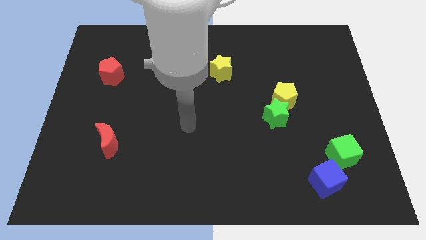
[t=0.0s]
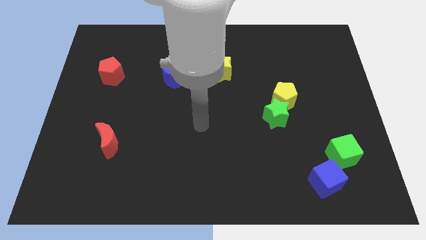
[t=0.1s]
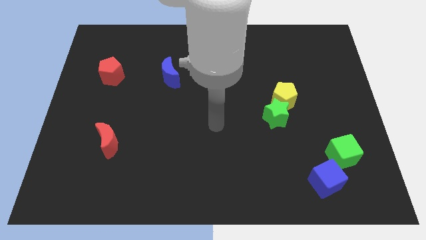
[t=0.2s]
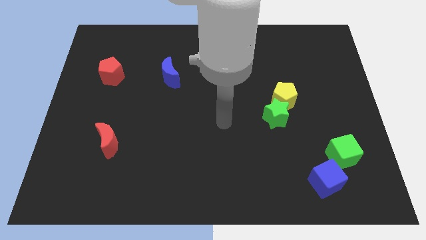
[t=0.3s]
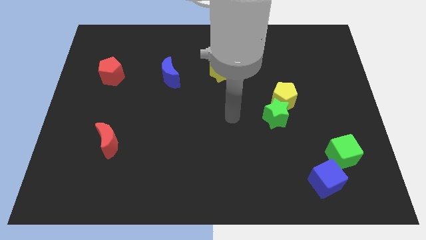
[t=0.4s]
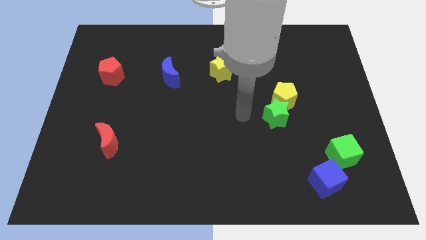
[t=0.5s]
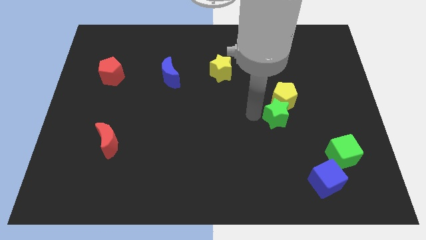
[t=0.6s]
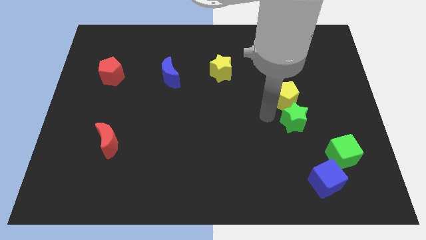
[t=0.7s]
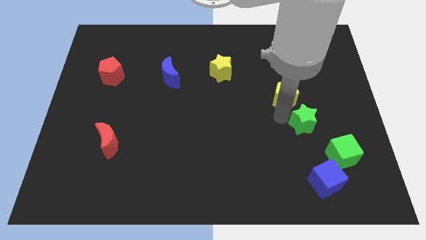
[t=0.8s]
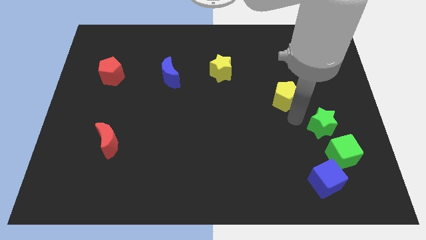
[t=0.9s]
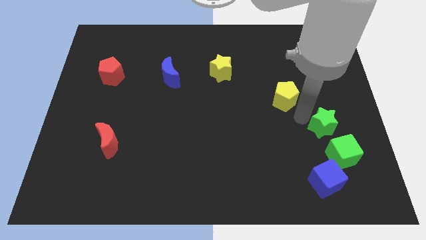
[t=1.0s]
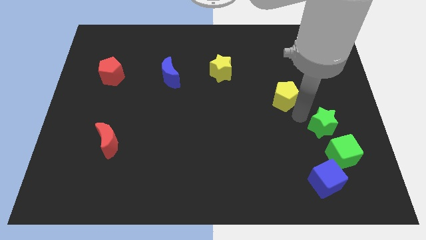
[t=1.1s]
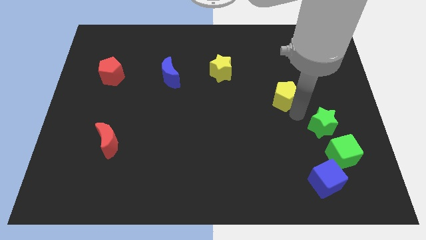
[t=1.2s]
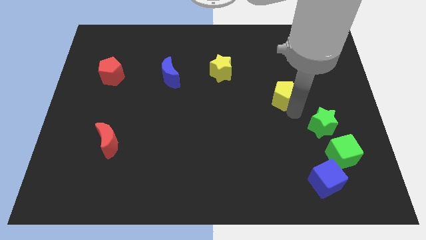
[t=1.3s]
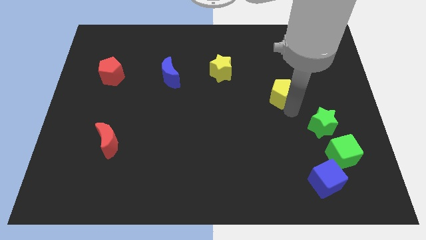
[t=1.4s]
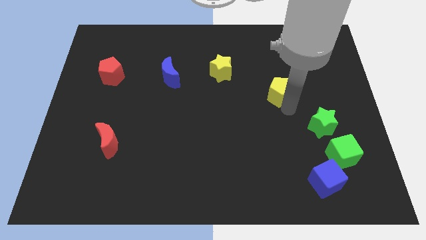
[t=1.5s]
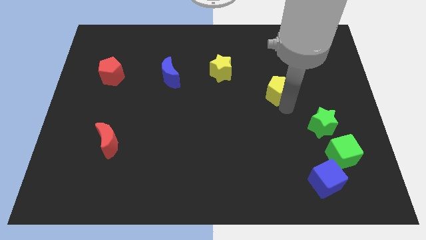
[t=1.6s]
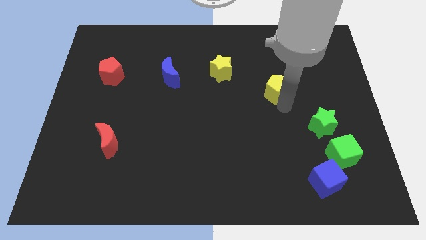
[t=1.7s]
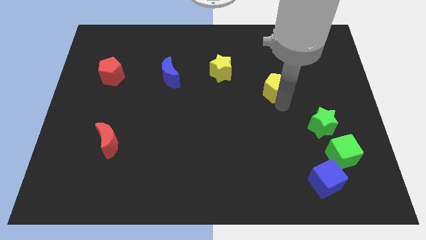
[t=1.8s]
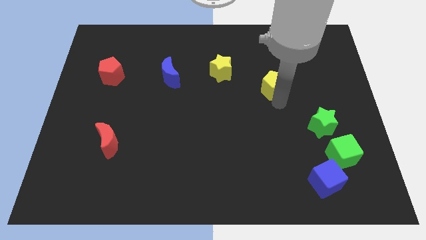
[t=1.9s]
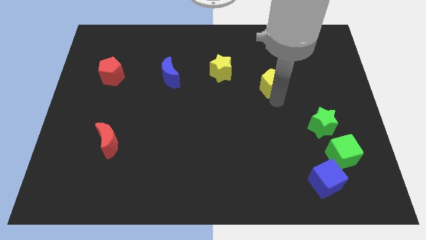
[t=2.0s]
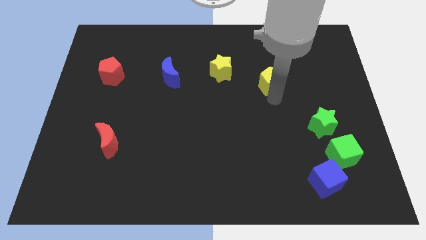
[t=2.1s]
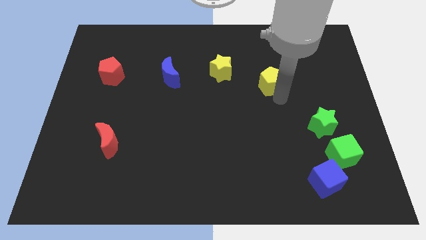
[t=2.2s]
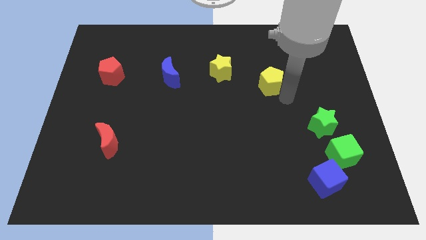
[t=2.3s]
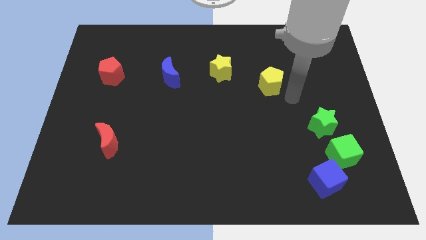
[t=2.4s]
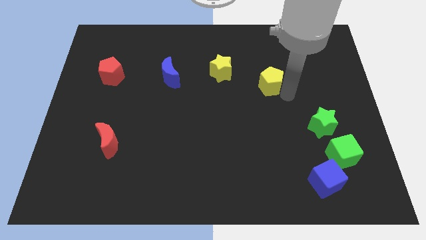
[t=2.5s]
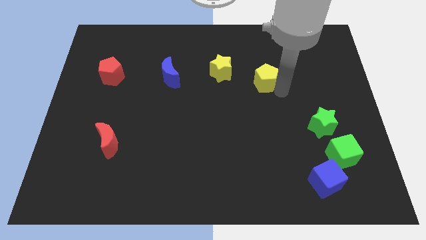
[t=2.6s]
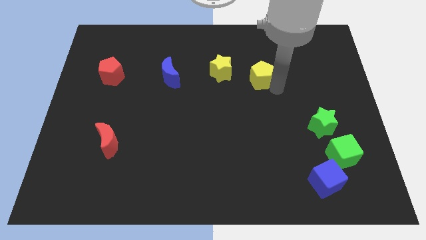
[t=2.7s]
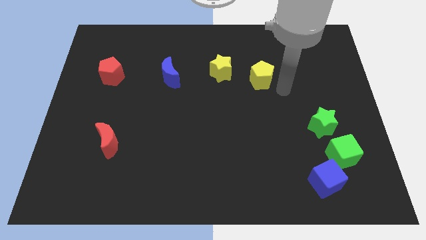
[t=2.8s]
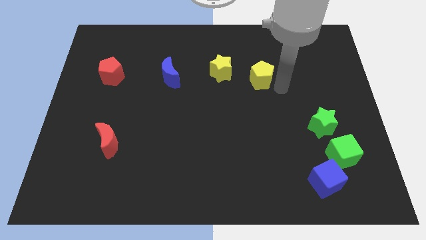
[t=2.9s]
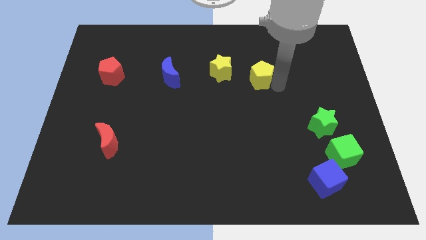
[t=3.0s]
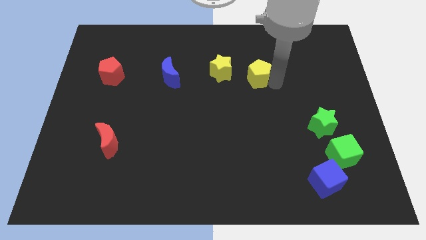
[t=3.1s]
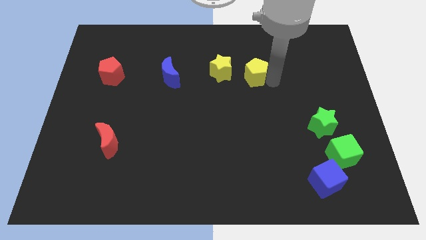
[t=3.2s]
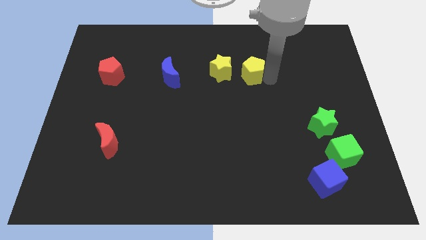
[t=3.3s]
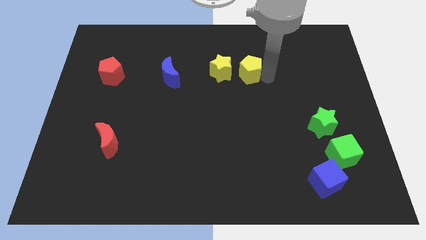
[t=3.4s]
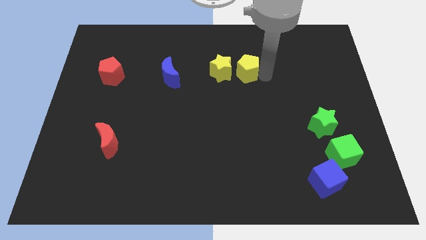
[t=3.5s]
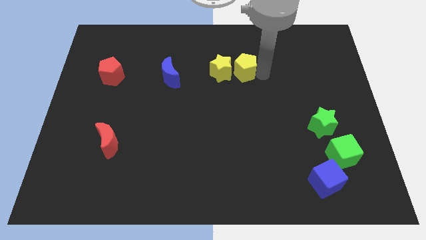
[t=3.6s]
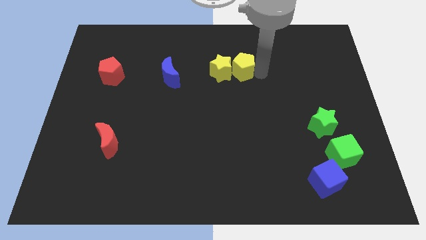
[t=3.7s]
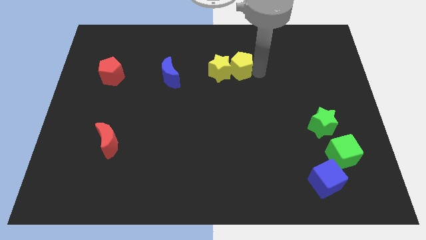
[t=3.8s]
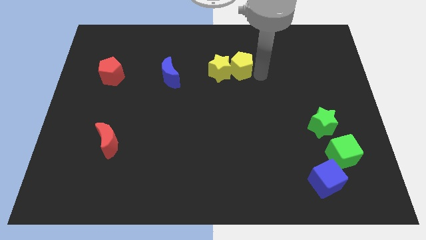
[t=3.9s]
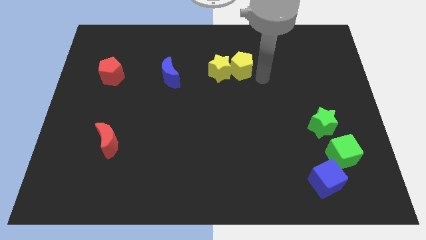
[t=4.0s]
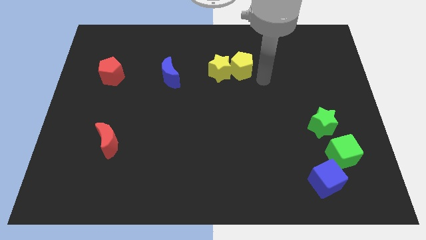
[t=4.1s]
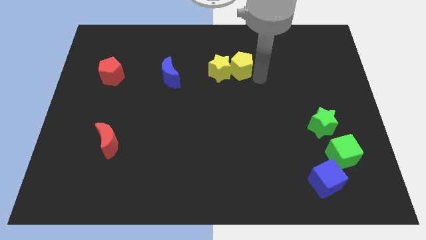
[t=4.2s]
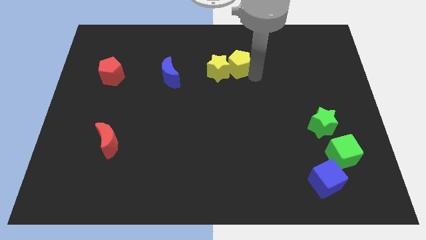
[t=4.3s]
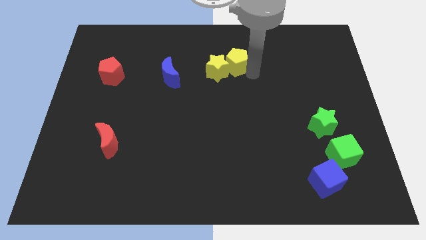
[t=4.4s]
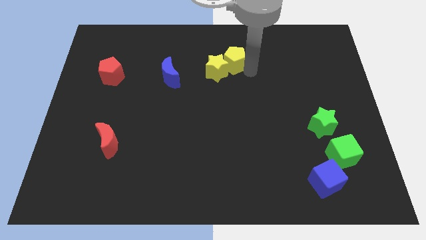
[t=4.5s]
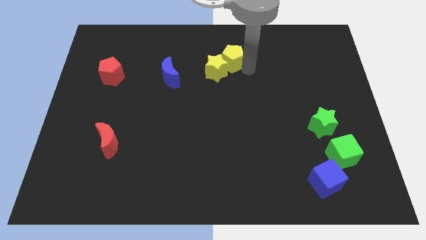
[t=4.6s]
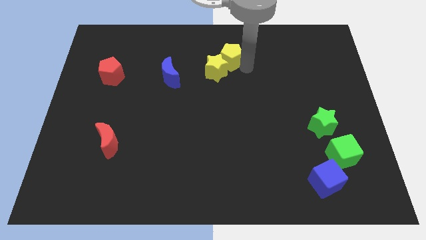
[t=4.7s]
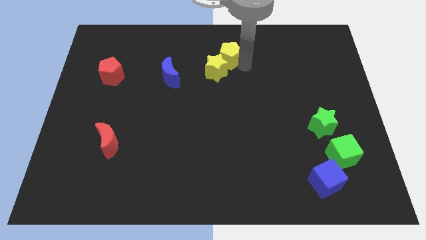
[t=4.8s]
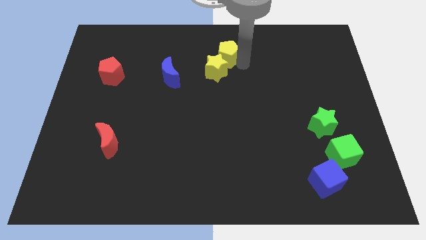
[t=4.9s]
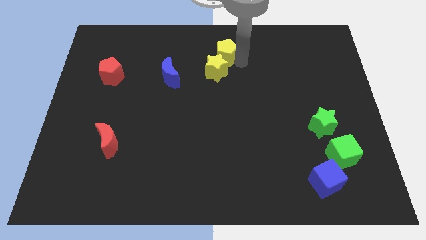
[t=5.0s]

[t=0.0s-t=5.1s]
put the yellow pentagon to the top

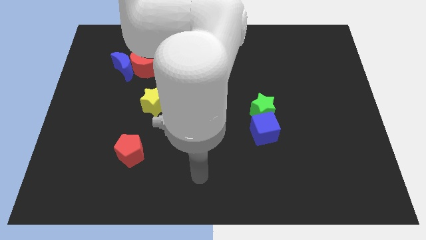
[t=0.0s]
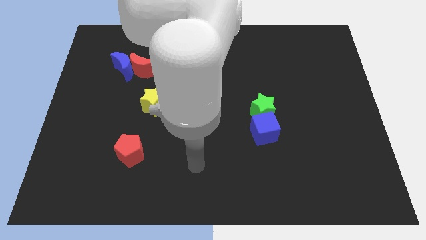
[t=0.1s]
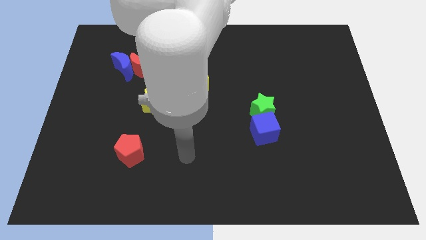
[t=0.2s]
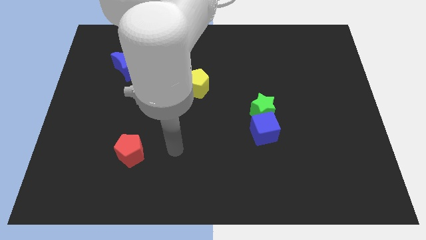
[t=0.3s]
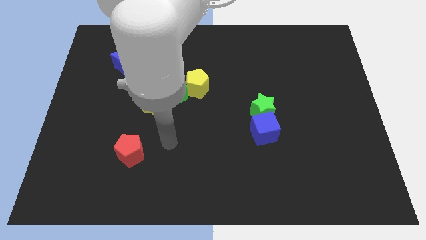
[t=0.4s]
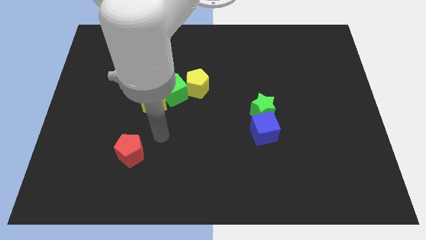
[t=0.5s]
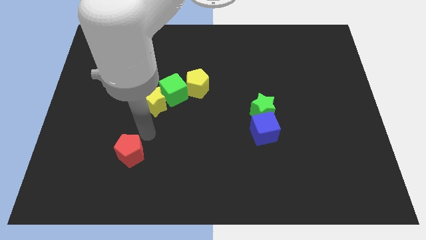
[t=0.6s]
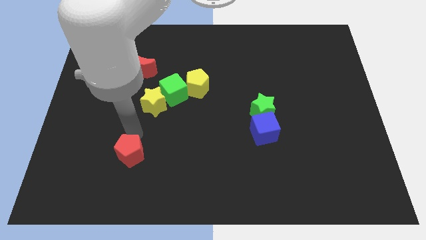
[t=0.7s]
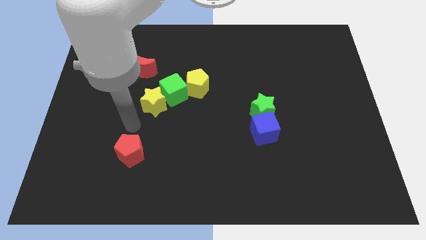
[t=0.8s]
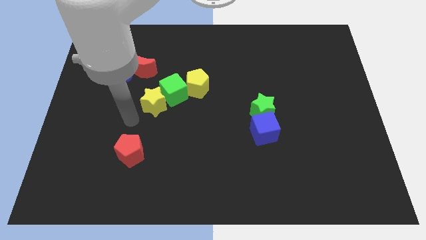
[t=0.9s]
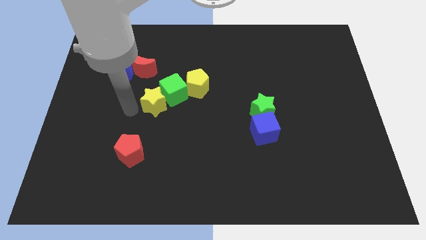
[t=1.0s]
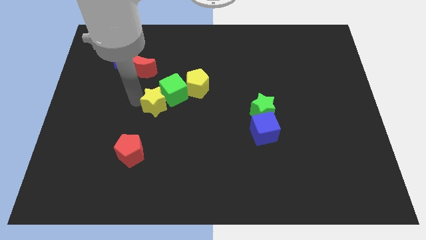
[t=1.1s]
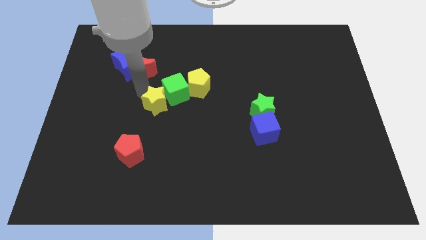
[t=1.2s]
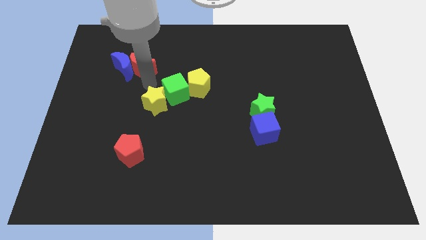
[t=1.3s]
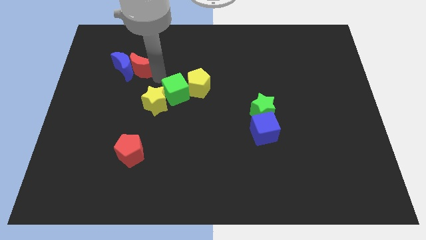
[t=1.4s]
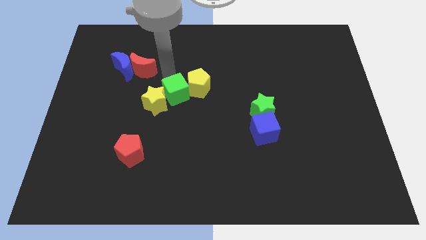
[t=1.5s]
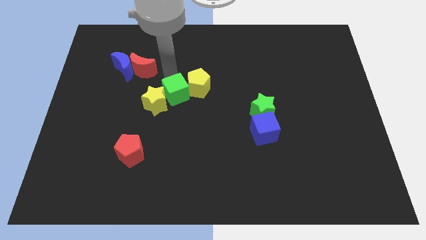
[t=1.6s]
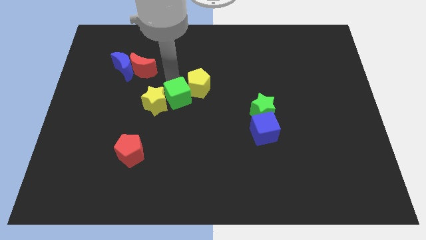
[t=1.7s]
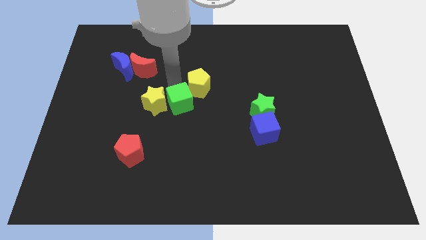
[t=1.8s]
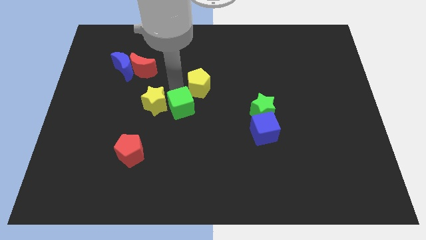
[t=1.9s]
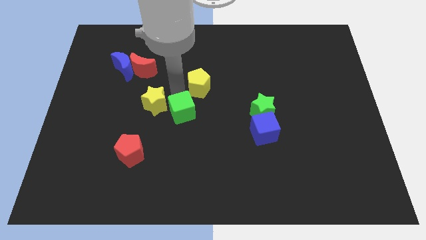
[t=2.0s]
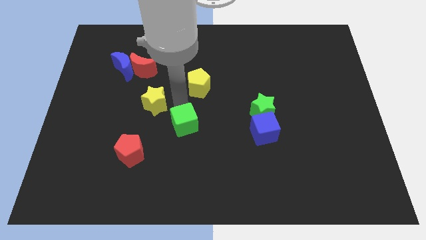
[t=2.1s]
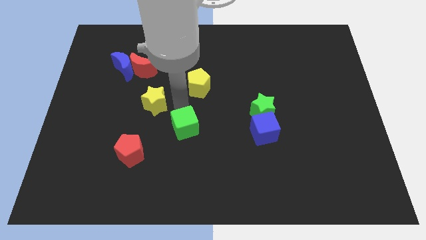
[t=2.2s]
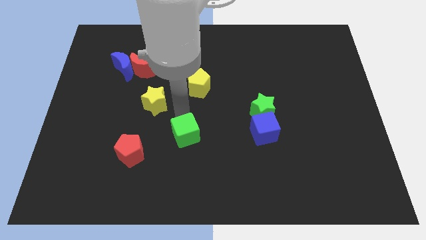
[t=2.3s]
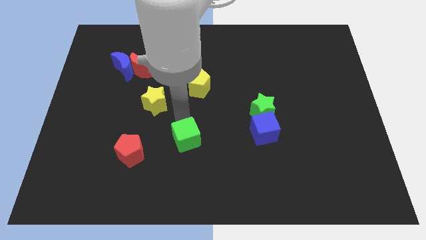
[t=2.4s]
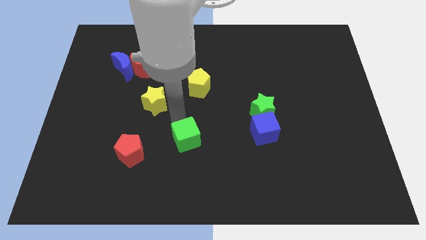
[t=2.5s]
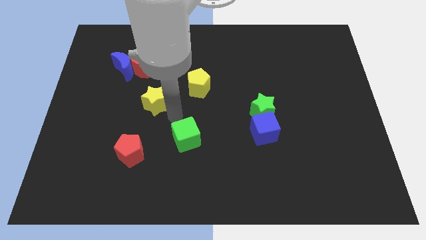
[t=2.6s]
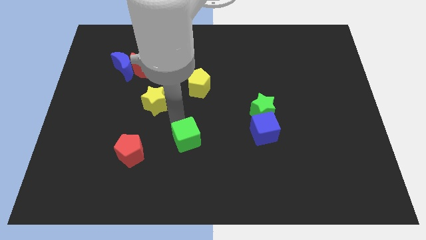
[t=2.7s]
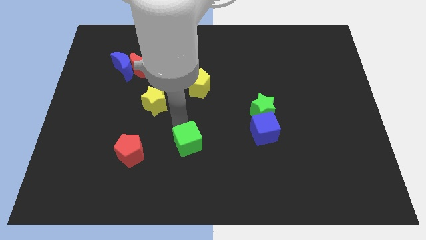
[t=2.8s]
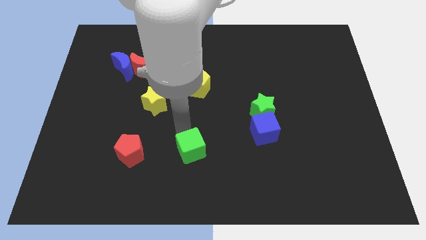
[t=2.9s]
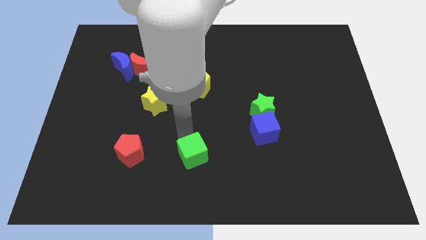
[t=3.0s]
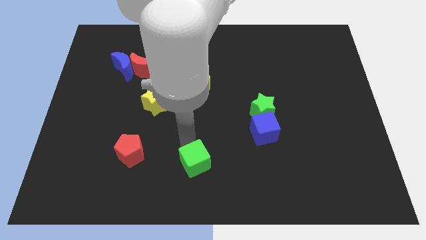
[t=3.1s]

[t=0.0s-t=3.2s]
move the green cube to the bottom
